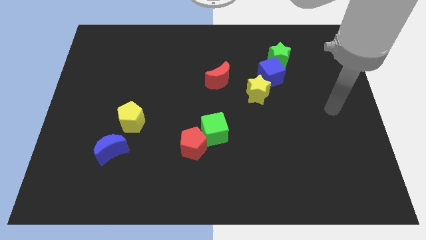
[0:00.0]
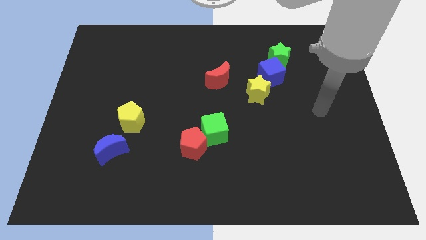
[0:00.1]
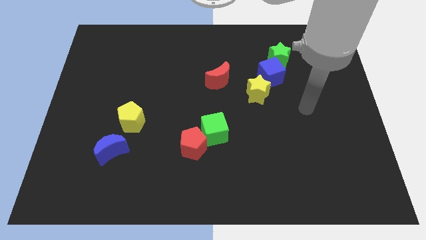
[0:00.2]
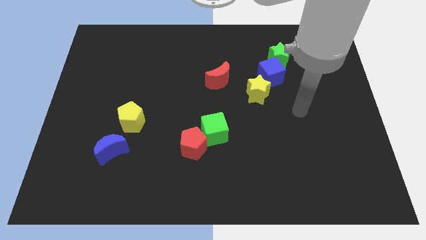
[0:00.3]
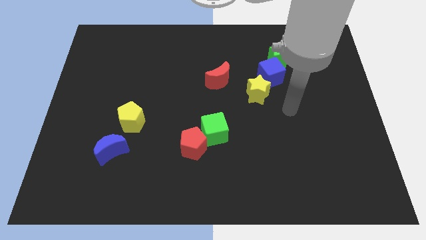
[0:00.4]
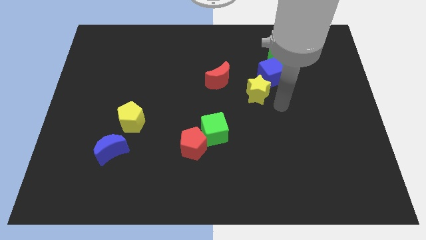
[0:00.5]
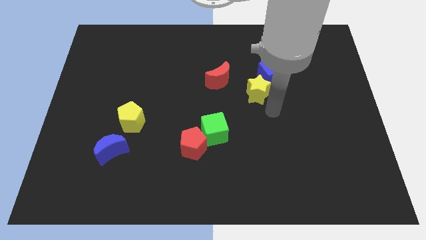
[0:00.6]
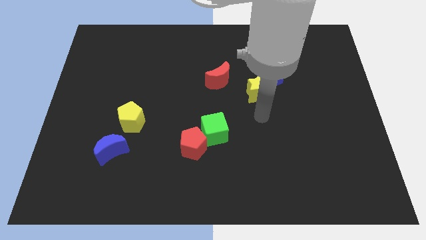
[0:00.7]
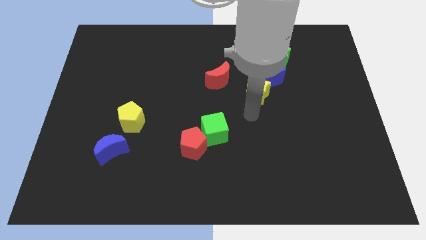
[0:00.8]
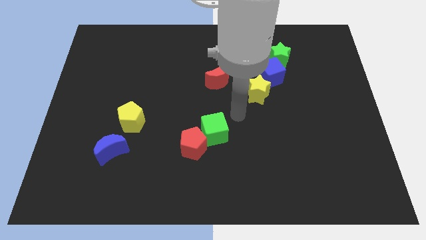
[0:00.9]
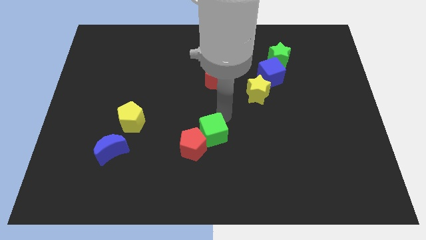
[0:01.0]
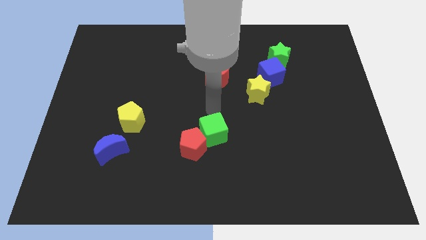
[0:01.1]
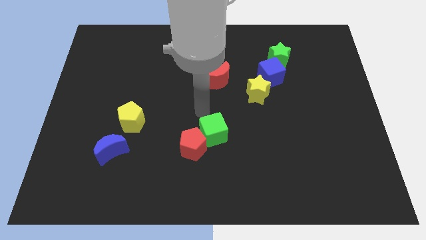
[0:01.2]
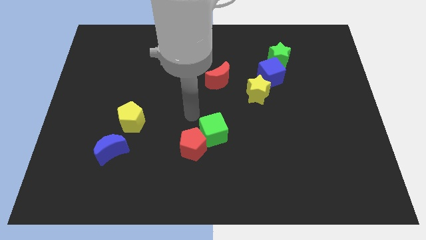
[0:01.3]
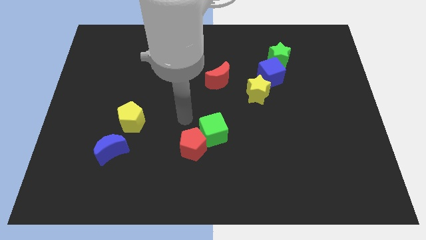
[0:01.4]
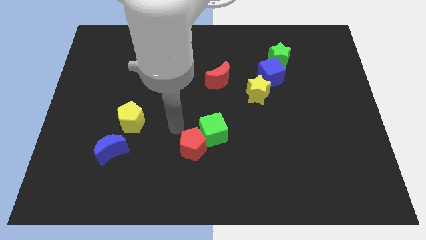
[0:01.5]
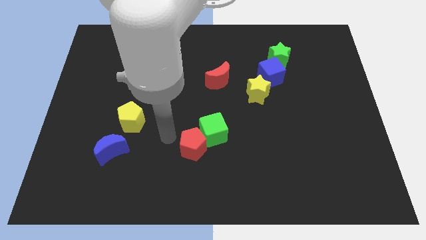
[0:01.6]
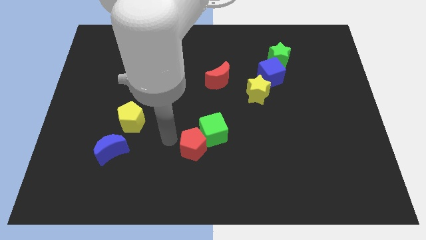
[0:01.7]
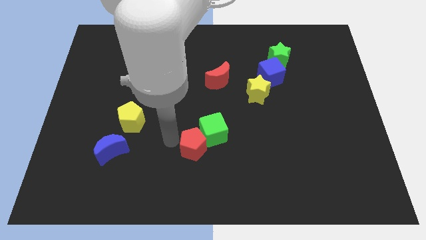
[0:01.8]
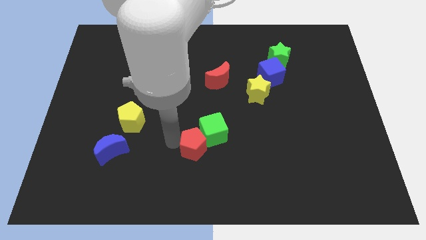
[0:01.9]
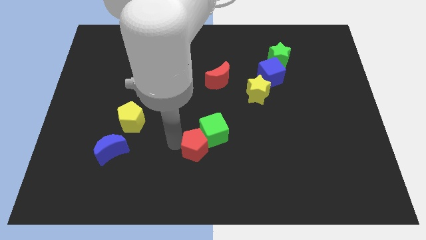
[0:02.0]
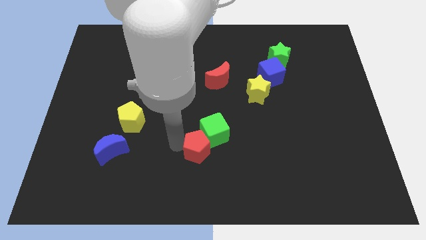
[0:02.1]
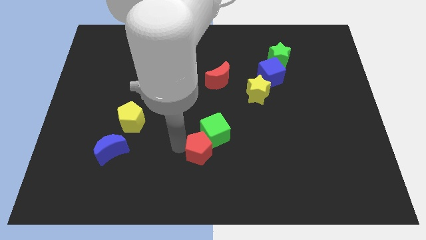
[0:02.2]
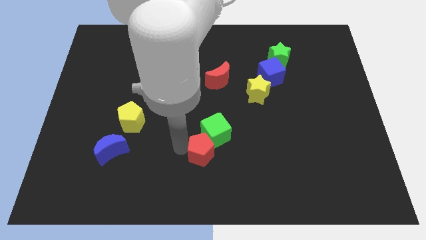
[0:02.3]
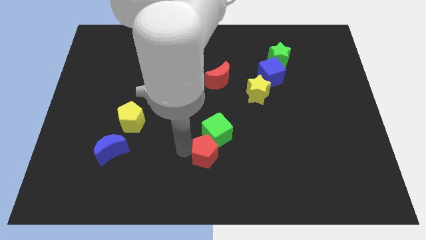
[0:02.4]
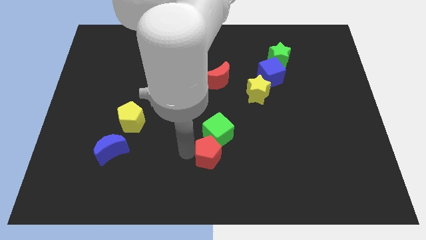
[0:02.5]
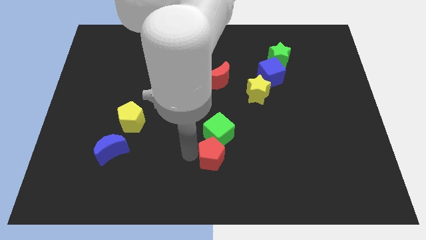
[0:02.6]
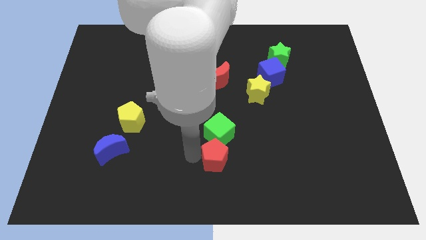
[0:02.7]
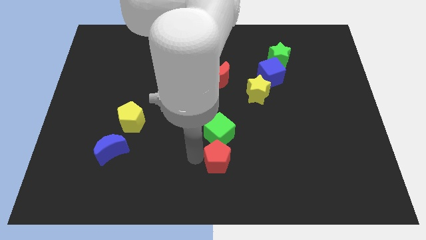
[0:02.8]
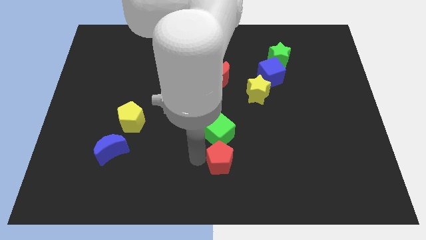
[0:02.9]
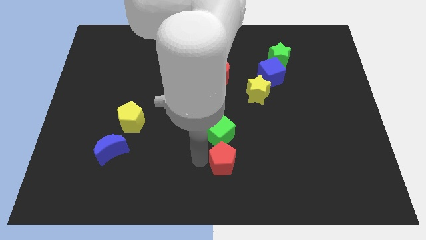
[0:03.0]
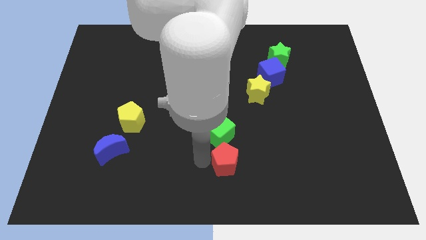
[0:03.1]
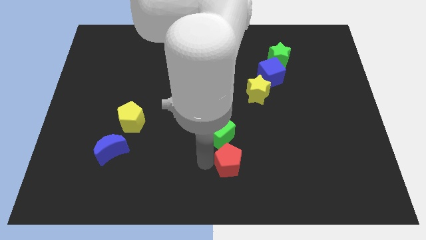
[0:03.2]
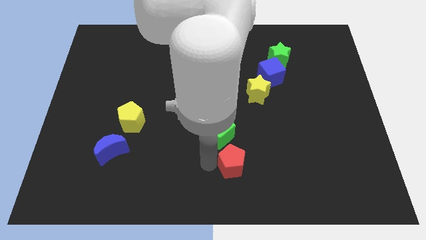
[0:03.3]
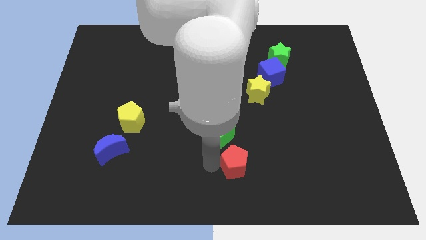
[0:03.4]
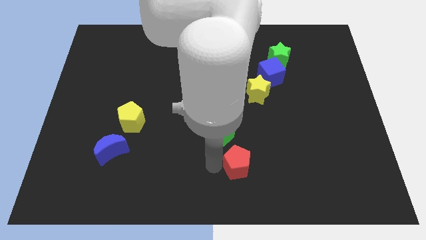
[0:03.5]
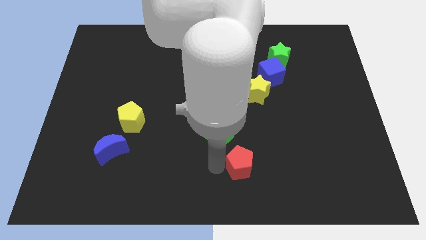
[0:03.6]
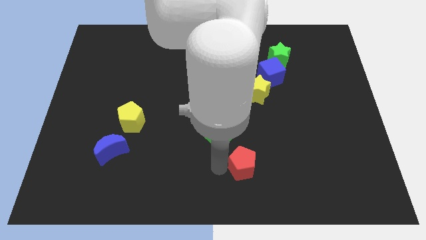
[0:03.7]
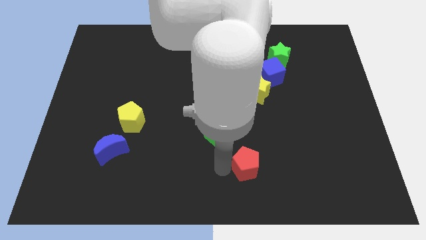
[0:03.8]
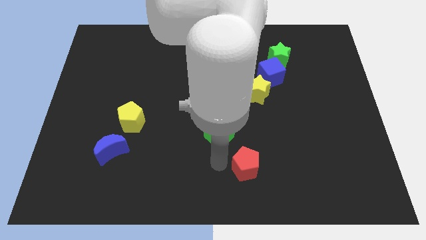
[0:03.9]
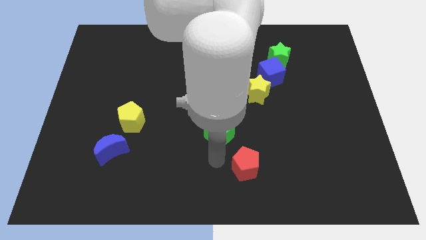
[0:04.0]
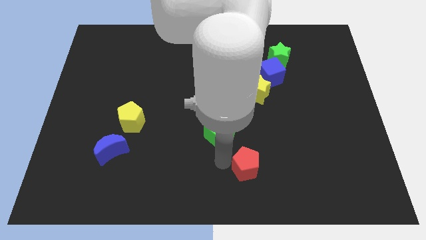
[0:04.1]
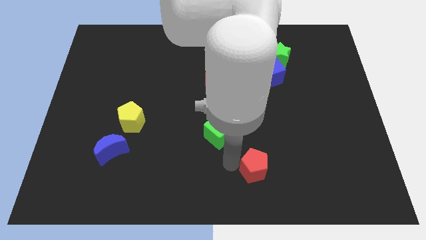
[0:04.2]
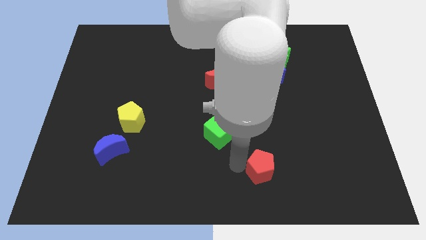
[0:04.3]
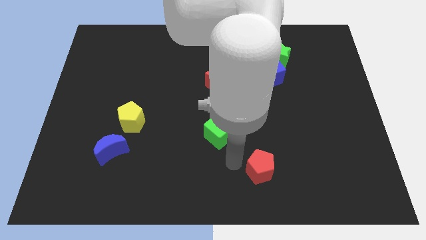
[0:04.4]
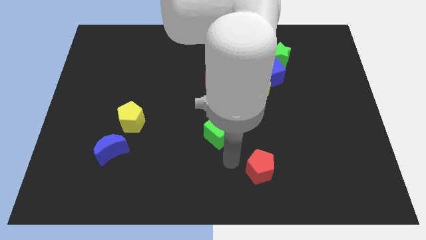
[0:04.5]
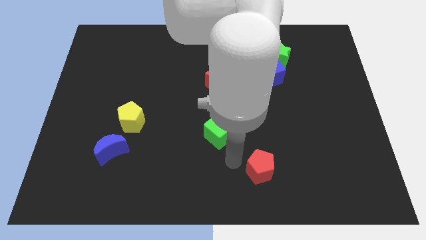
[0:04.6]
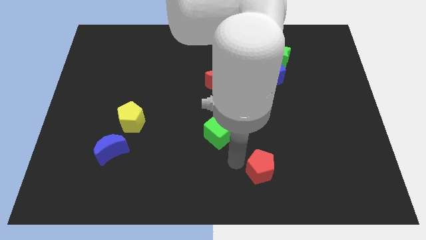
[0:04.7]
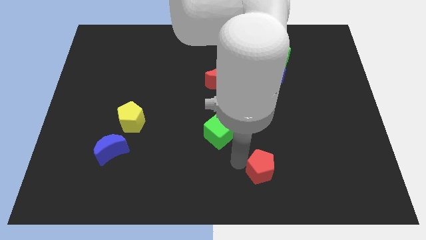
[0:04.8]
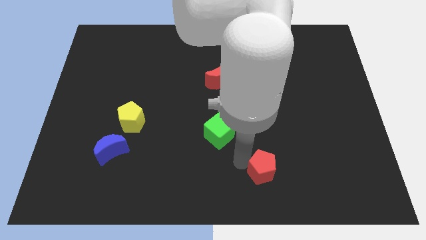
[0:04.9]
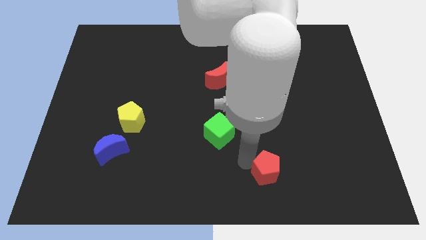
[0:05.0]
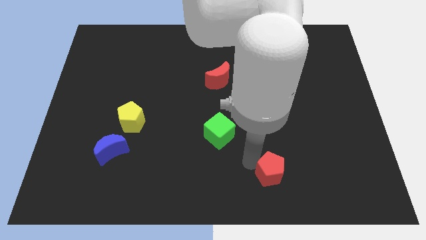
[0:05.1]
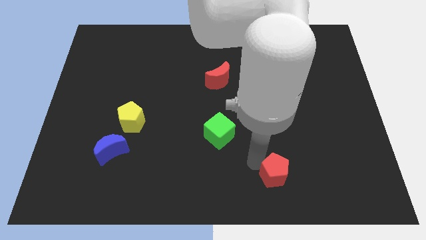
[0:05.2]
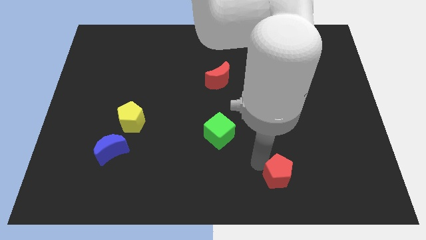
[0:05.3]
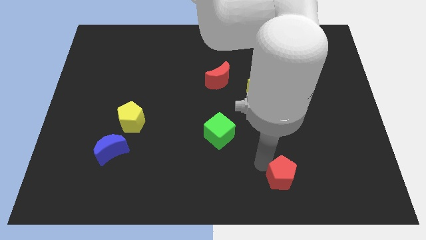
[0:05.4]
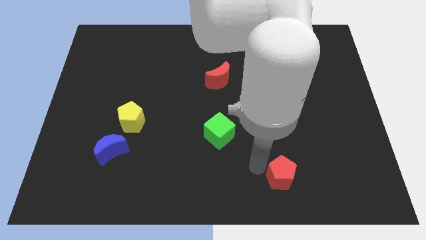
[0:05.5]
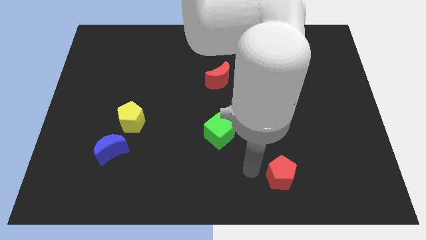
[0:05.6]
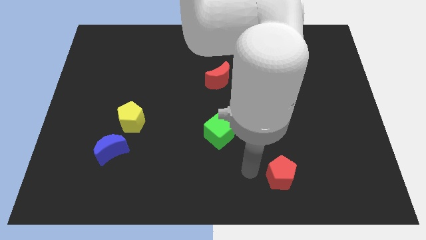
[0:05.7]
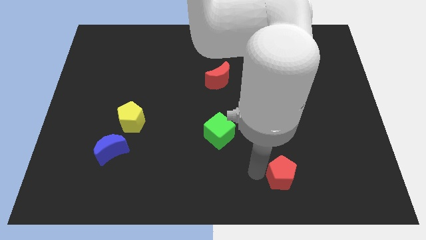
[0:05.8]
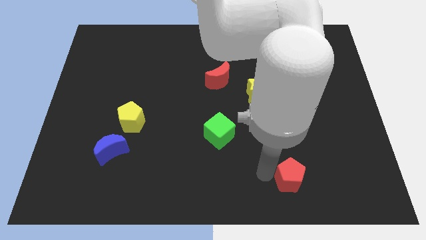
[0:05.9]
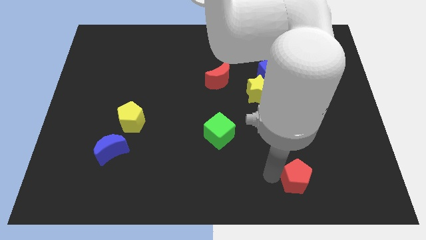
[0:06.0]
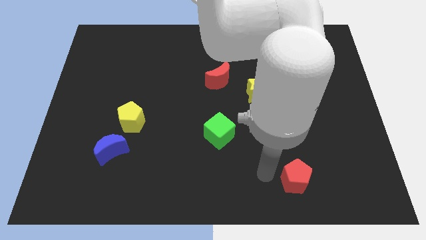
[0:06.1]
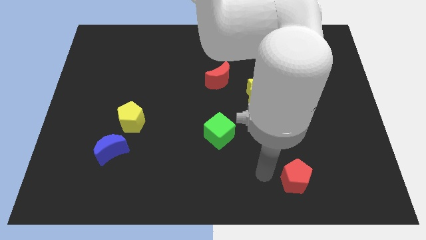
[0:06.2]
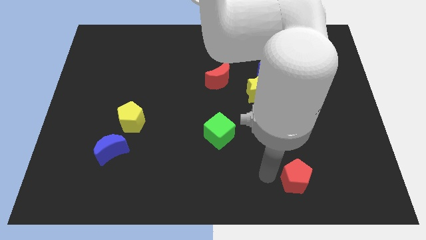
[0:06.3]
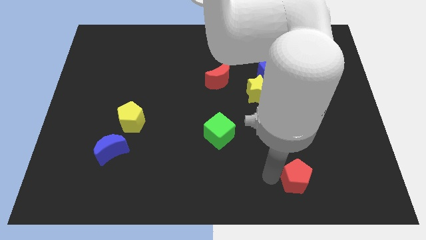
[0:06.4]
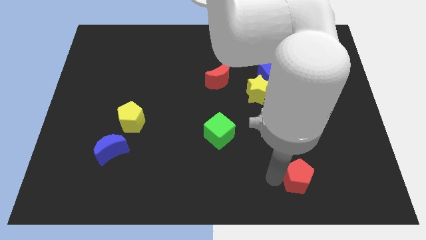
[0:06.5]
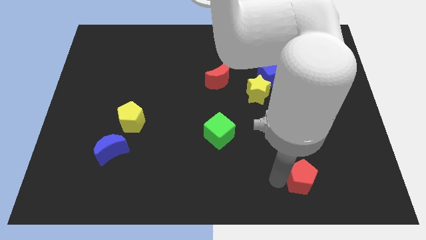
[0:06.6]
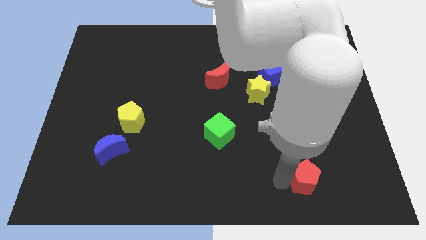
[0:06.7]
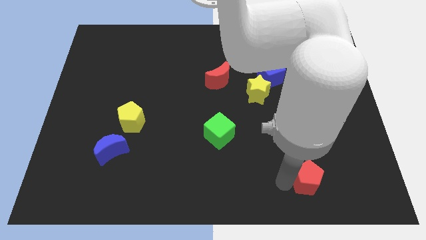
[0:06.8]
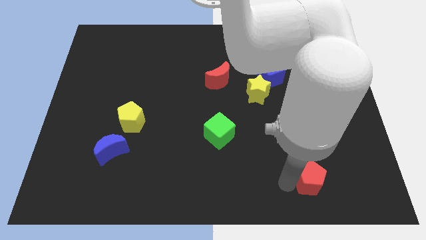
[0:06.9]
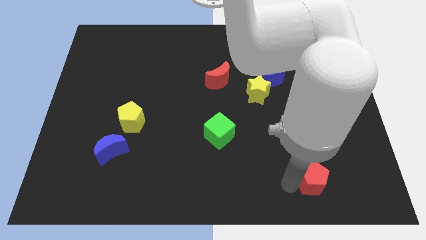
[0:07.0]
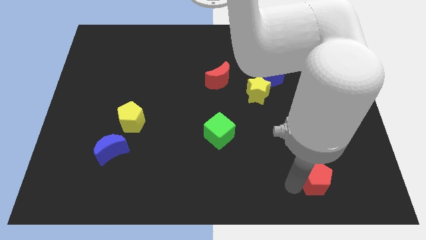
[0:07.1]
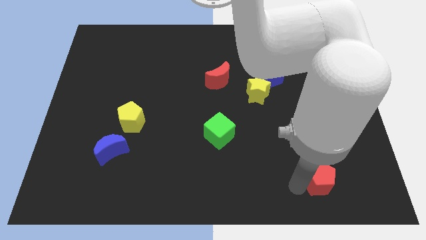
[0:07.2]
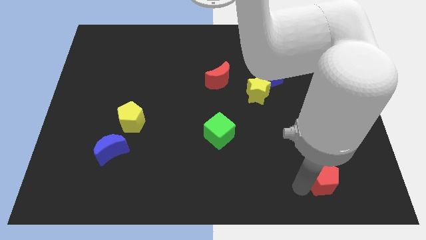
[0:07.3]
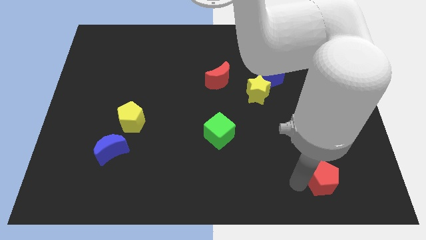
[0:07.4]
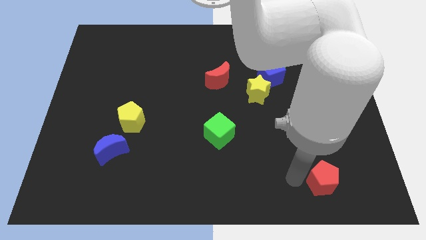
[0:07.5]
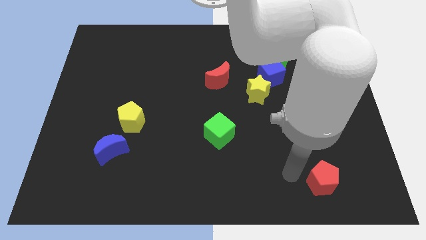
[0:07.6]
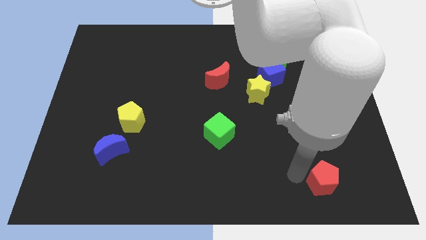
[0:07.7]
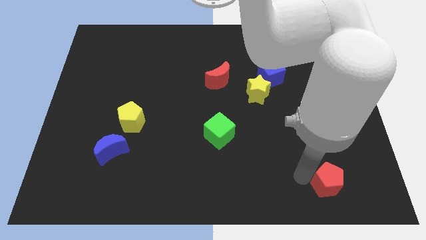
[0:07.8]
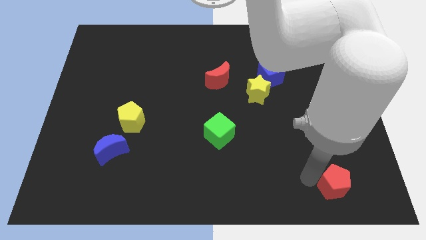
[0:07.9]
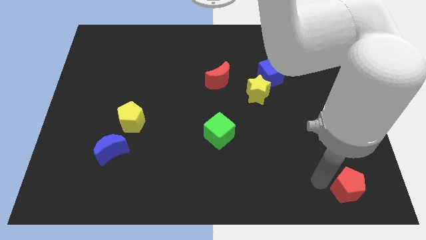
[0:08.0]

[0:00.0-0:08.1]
slide the red pentagon to the bottom right of the board
